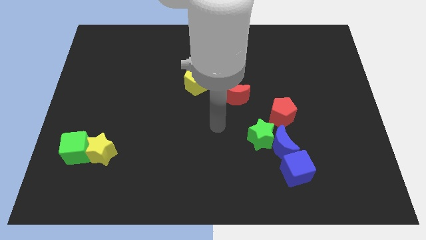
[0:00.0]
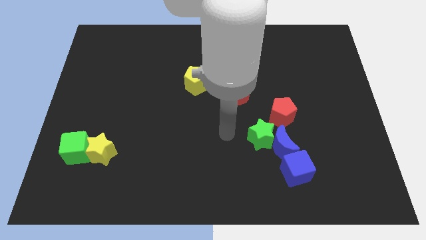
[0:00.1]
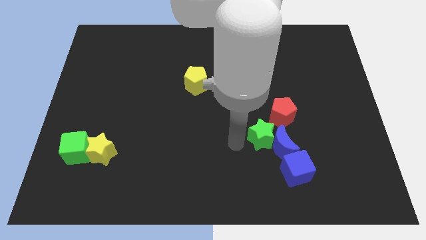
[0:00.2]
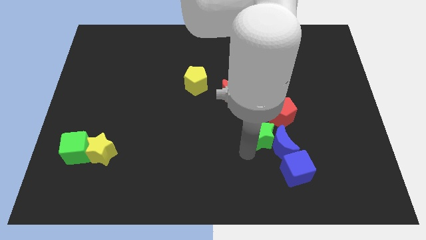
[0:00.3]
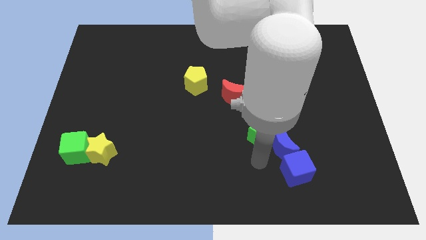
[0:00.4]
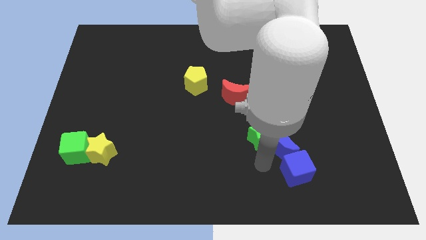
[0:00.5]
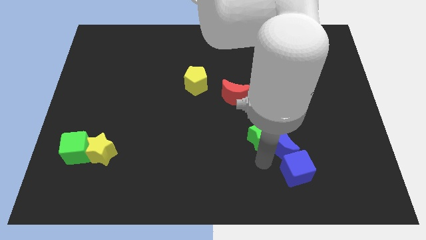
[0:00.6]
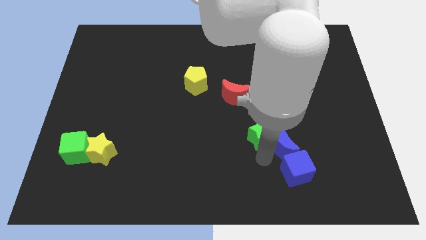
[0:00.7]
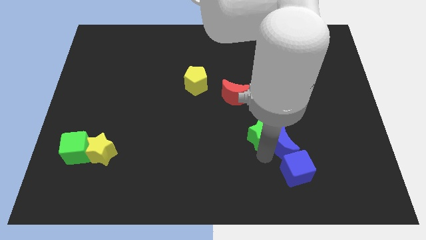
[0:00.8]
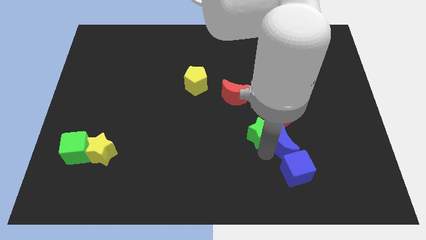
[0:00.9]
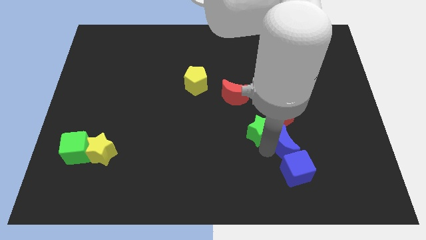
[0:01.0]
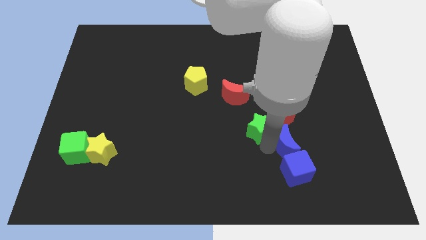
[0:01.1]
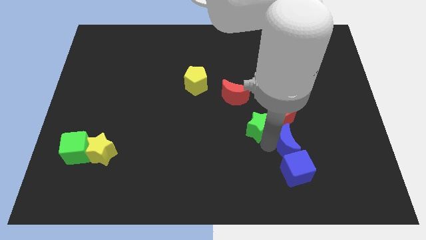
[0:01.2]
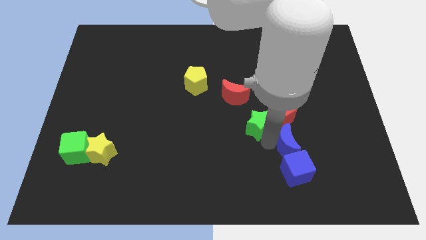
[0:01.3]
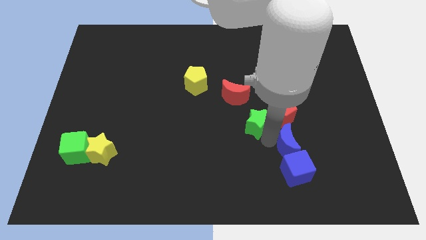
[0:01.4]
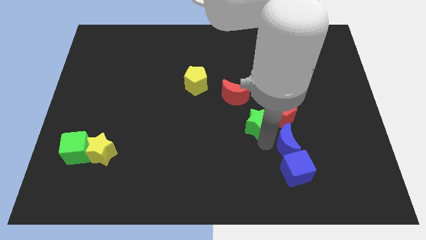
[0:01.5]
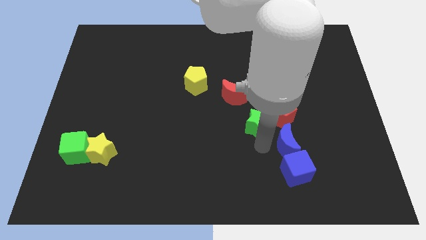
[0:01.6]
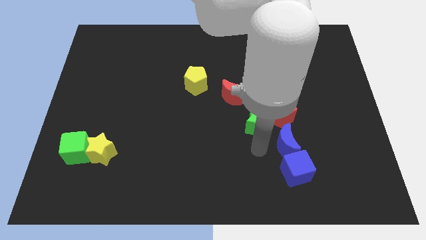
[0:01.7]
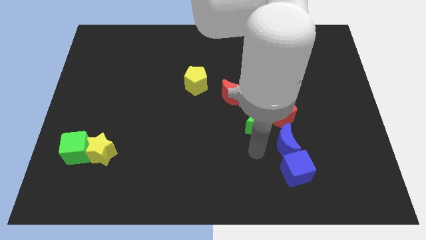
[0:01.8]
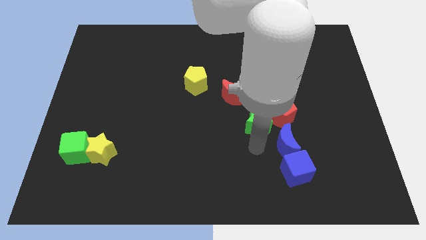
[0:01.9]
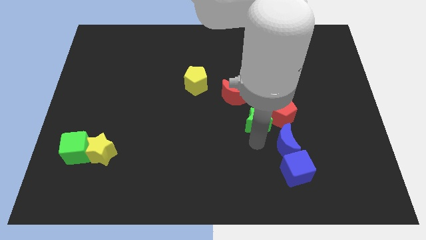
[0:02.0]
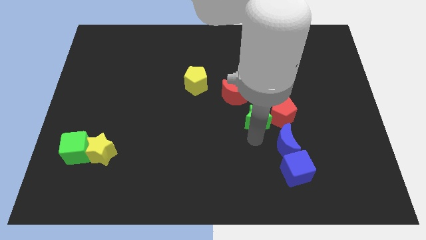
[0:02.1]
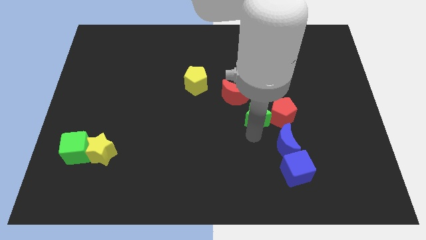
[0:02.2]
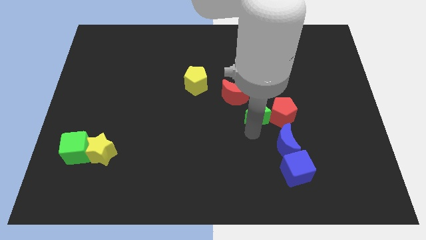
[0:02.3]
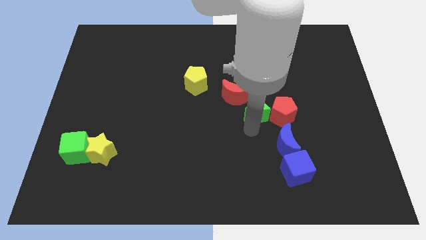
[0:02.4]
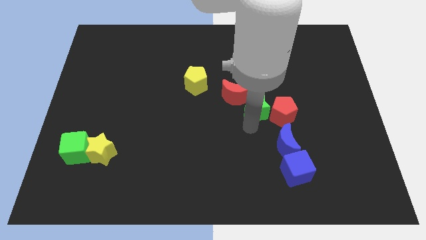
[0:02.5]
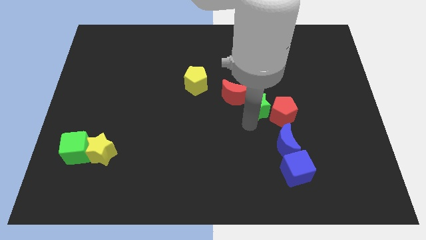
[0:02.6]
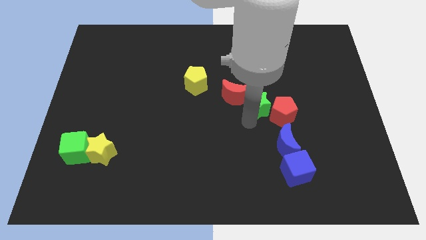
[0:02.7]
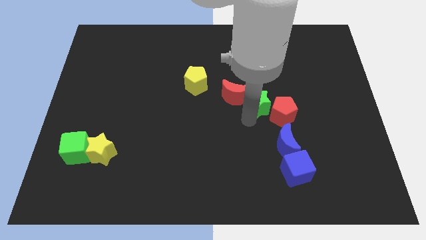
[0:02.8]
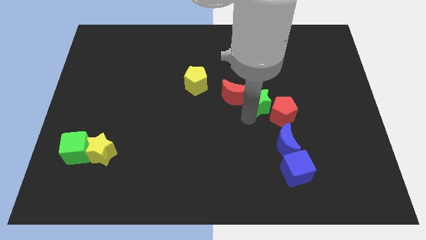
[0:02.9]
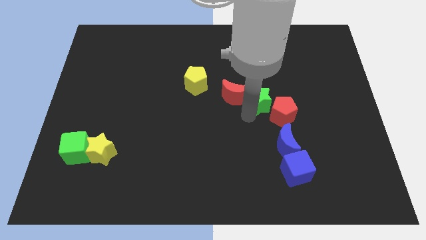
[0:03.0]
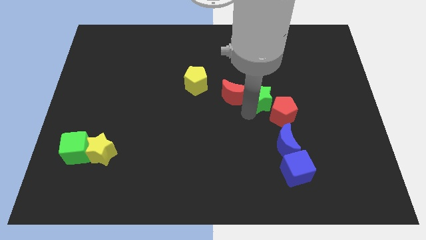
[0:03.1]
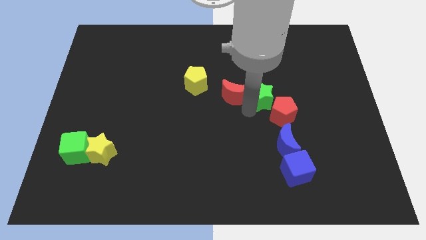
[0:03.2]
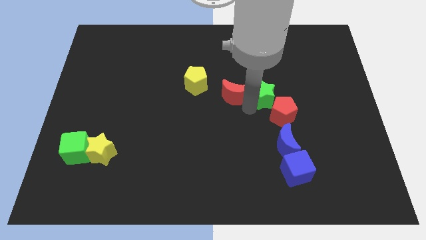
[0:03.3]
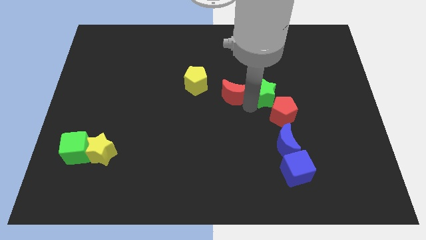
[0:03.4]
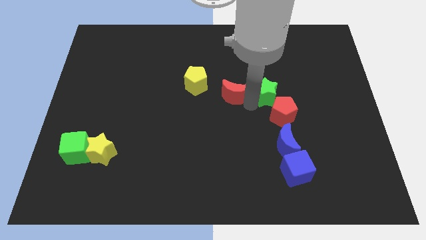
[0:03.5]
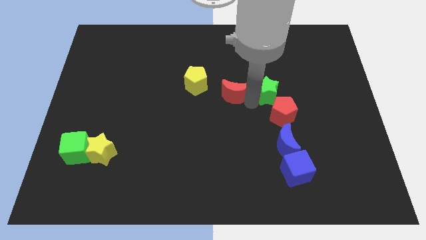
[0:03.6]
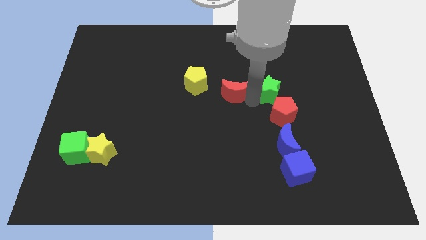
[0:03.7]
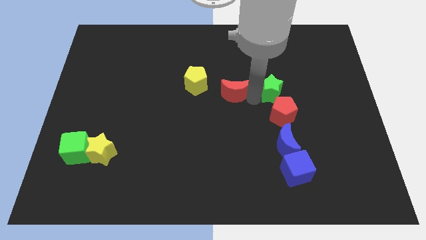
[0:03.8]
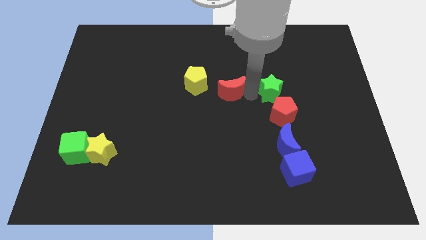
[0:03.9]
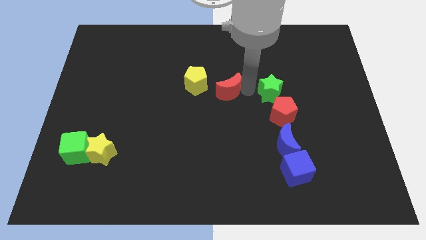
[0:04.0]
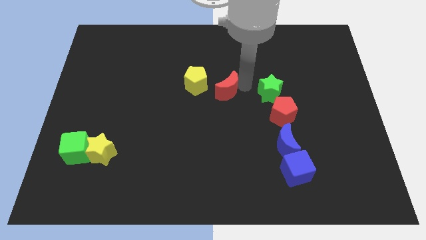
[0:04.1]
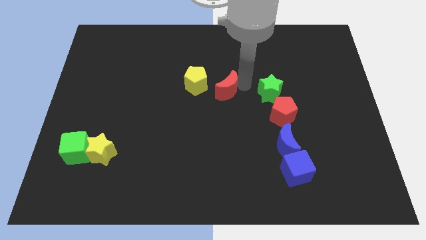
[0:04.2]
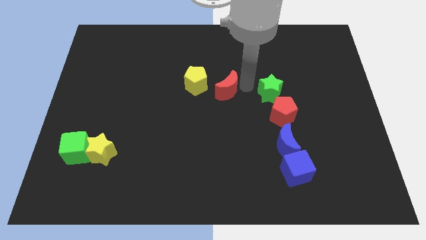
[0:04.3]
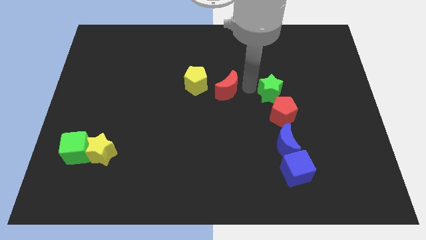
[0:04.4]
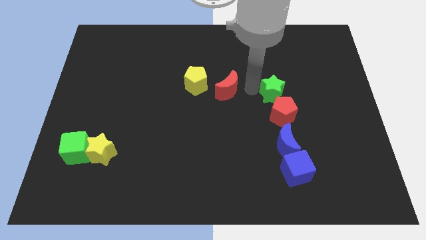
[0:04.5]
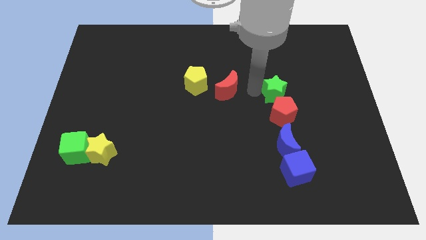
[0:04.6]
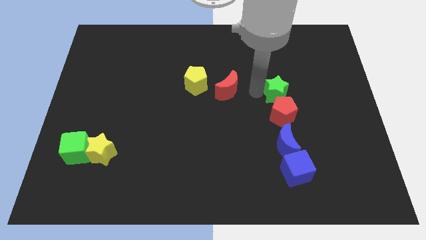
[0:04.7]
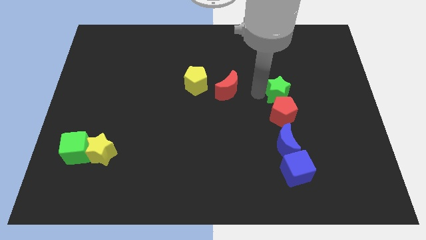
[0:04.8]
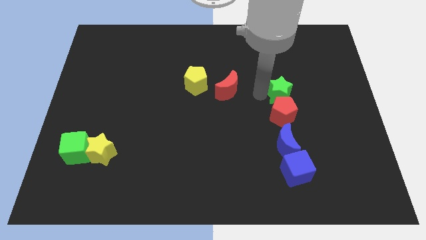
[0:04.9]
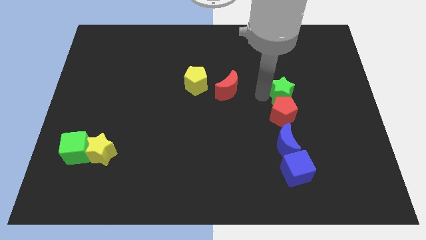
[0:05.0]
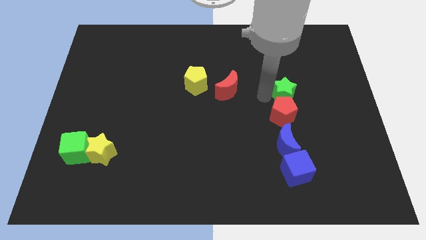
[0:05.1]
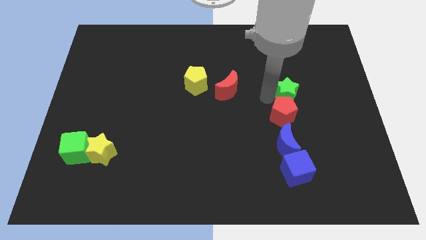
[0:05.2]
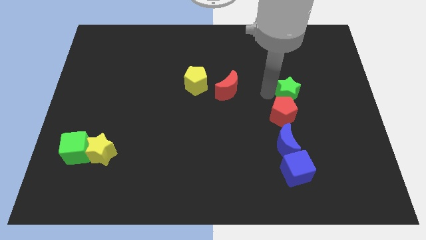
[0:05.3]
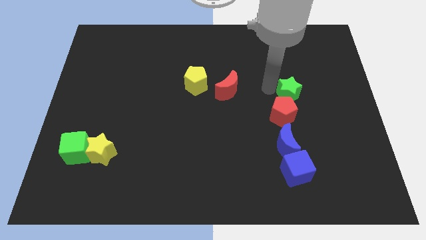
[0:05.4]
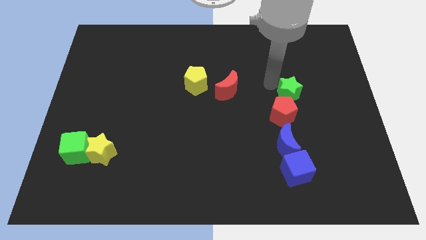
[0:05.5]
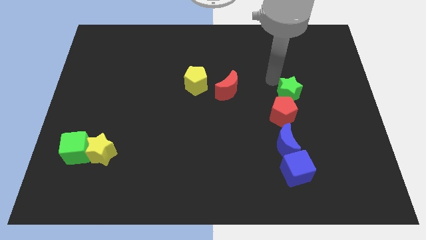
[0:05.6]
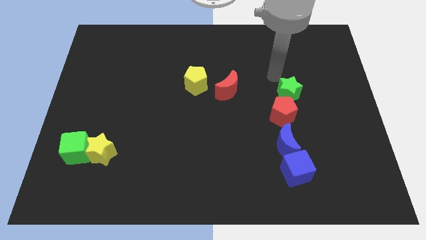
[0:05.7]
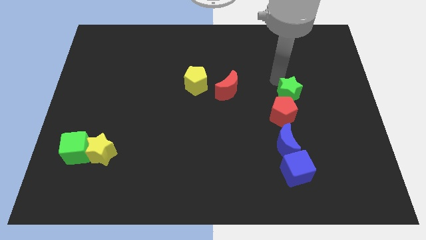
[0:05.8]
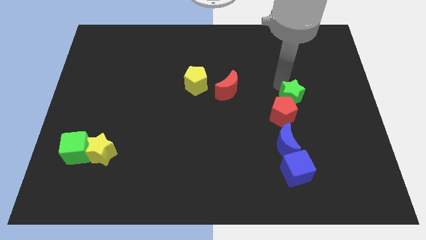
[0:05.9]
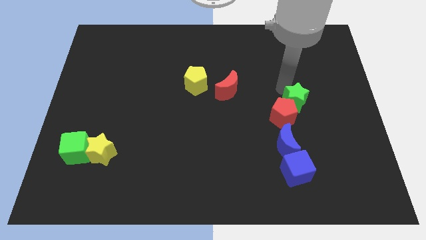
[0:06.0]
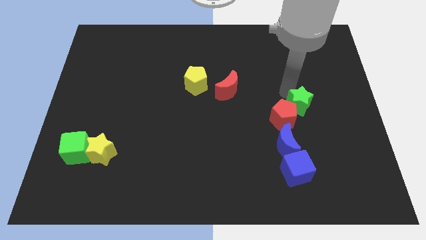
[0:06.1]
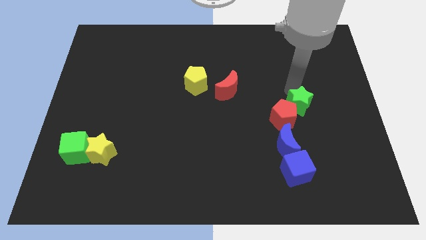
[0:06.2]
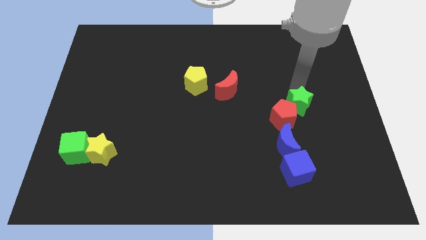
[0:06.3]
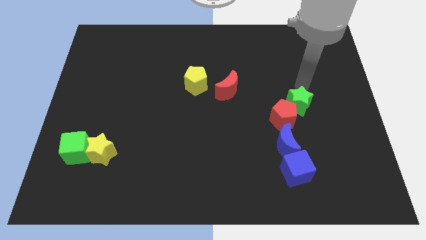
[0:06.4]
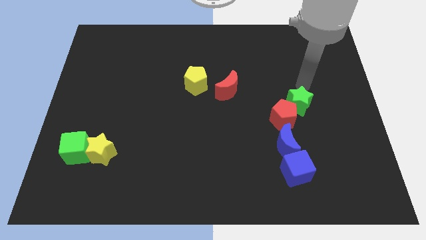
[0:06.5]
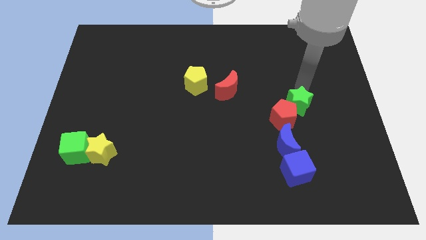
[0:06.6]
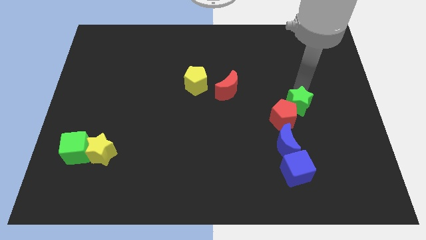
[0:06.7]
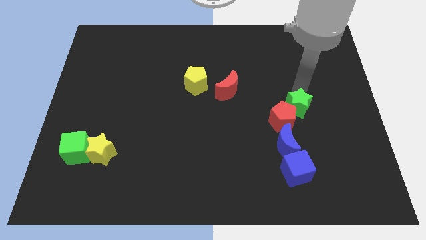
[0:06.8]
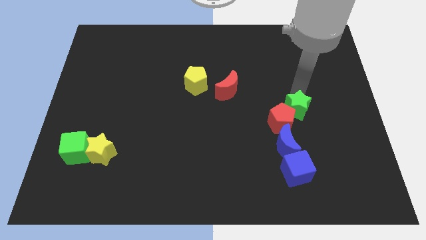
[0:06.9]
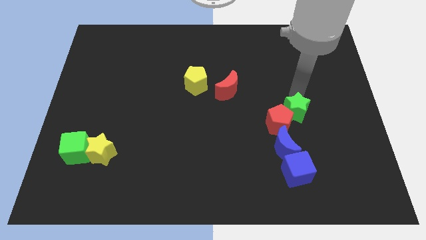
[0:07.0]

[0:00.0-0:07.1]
move the green star above the blue cube

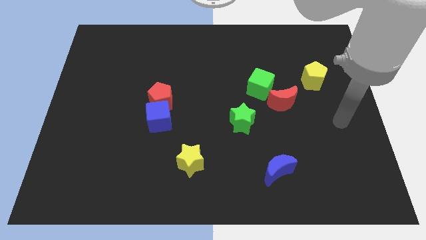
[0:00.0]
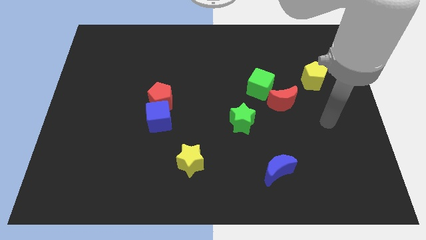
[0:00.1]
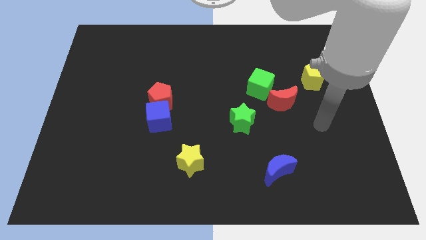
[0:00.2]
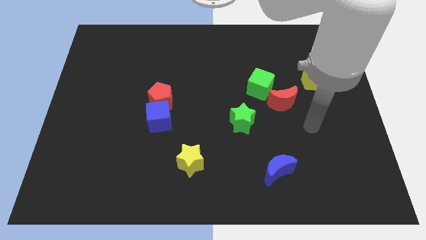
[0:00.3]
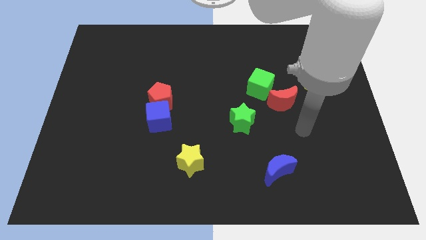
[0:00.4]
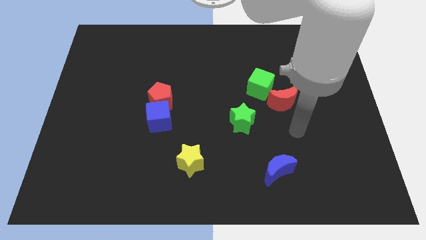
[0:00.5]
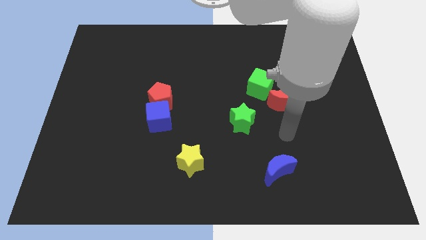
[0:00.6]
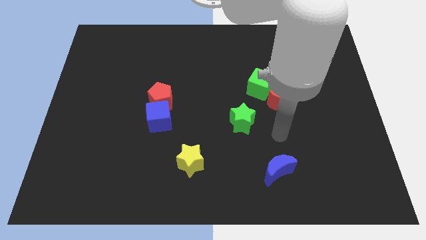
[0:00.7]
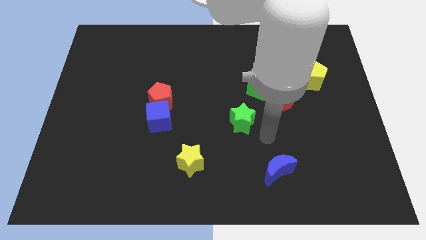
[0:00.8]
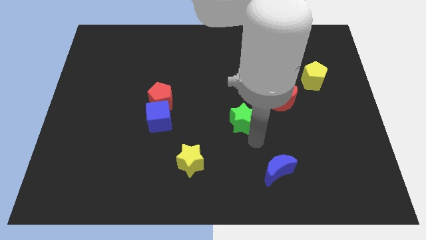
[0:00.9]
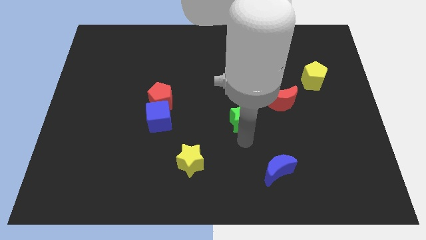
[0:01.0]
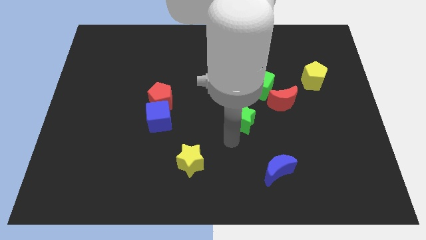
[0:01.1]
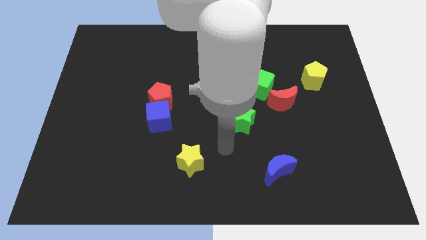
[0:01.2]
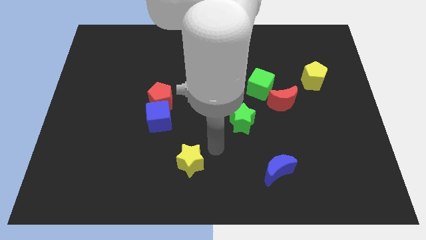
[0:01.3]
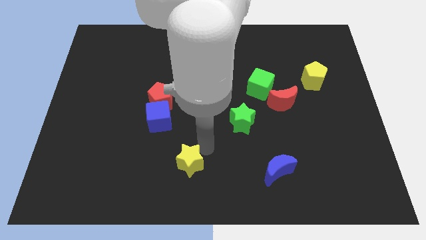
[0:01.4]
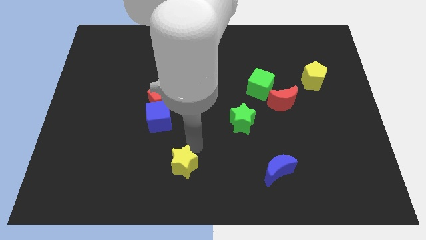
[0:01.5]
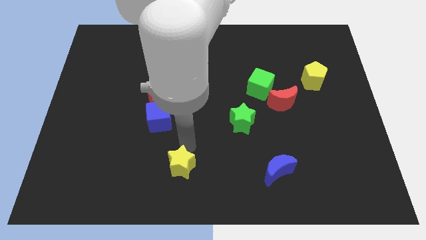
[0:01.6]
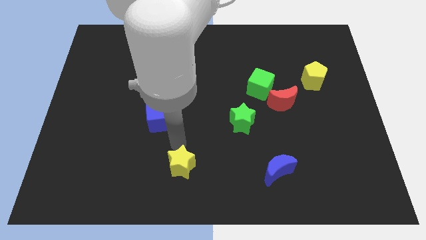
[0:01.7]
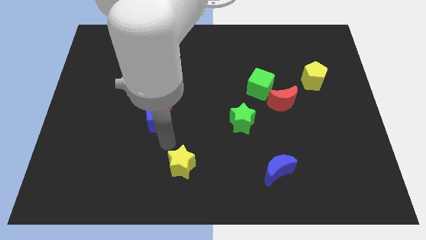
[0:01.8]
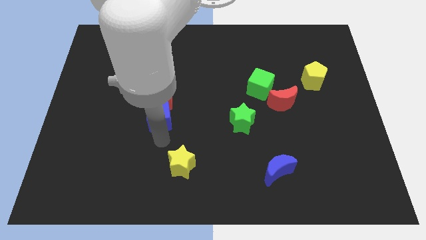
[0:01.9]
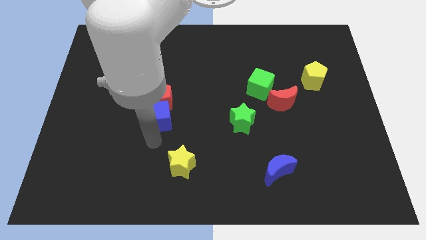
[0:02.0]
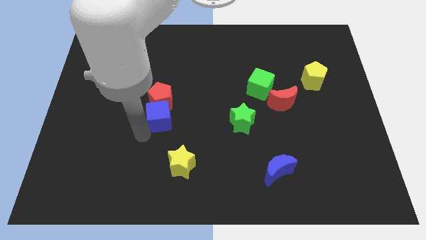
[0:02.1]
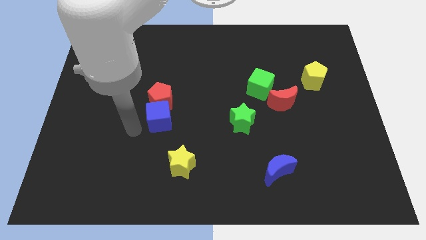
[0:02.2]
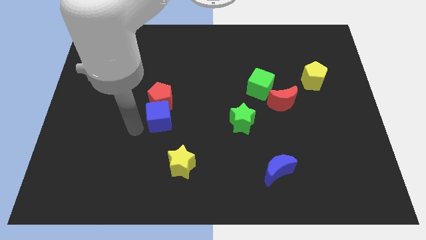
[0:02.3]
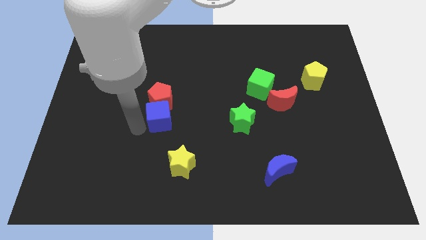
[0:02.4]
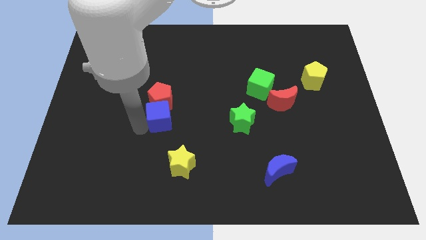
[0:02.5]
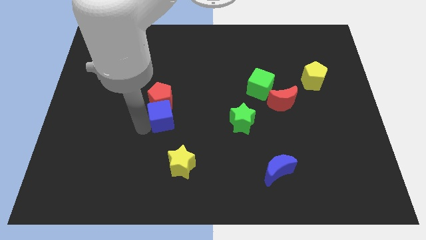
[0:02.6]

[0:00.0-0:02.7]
put the blue cube above the yellow star
